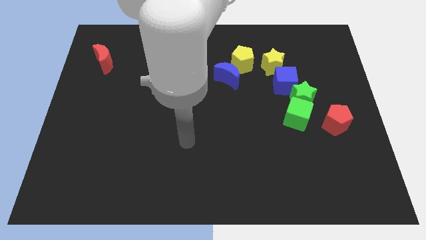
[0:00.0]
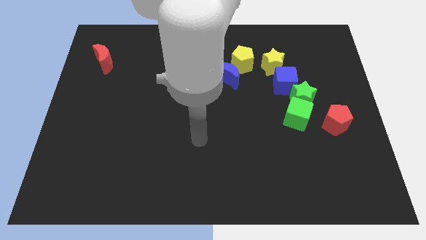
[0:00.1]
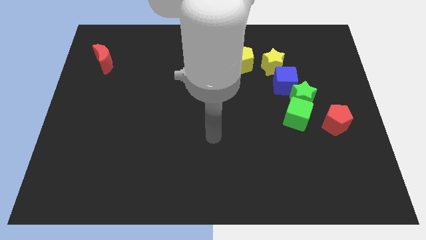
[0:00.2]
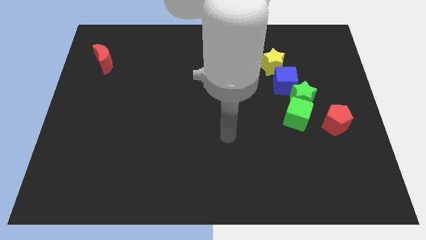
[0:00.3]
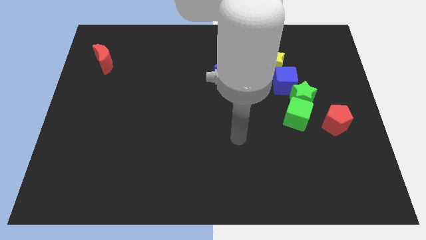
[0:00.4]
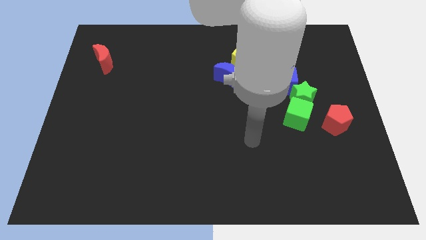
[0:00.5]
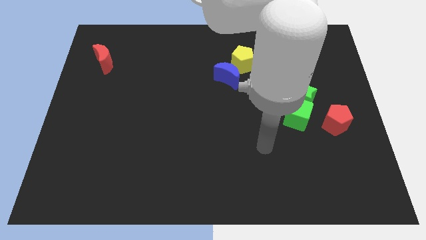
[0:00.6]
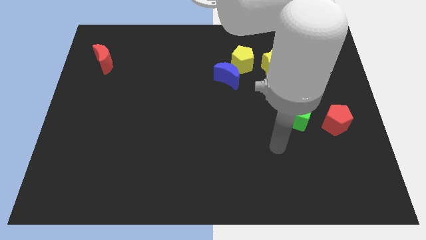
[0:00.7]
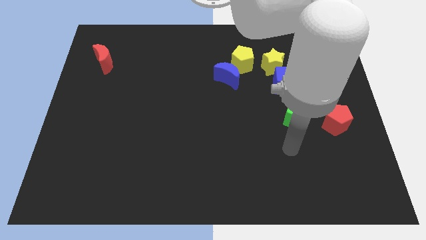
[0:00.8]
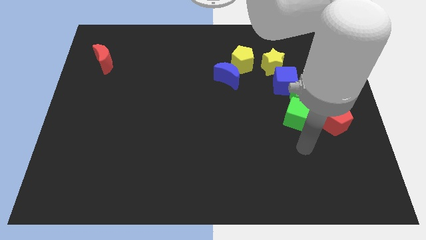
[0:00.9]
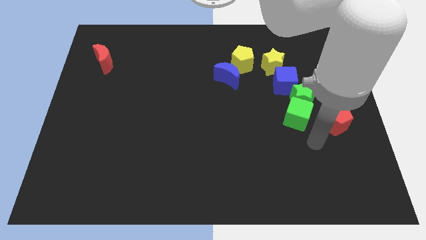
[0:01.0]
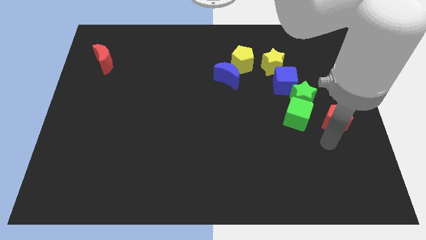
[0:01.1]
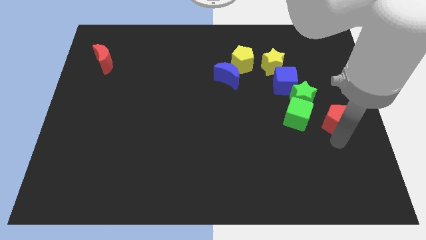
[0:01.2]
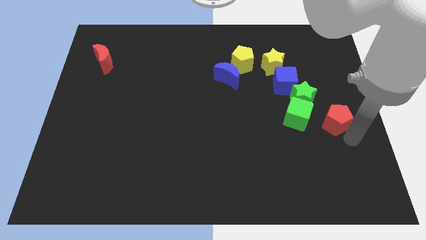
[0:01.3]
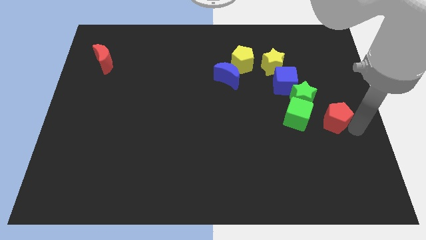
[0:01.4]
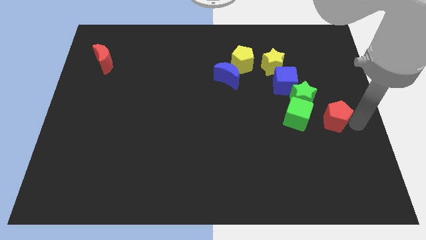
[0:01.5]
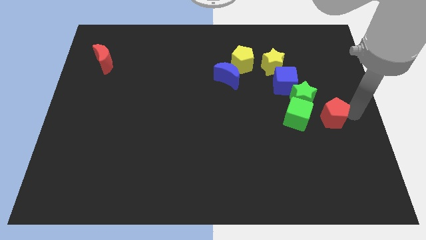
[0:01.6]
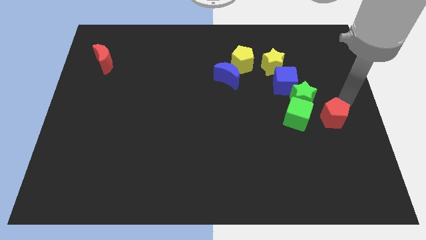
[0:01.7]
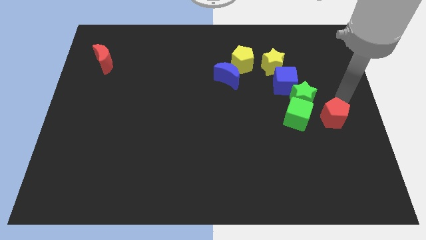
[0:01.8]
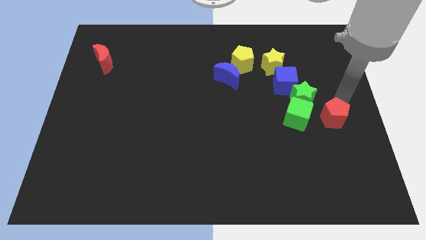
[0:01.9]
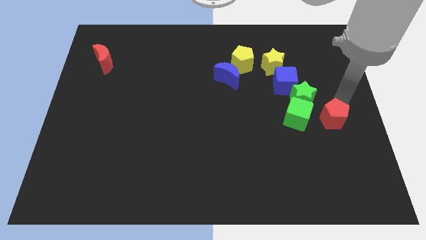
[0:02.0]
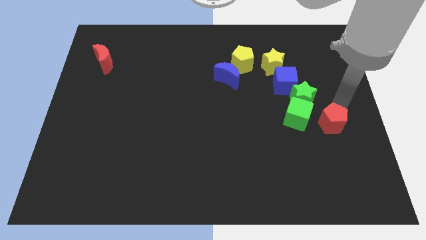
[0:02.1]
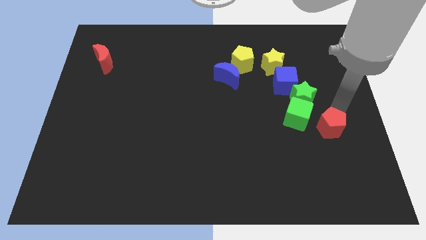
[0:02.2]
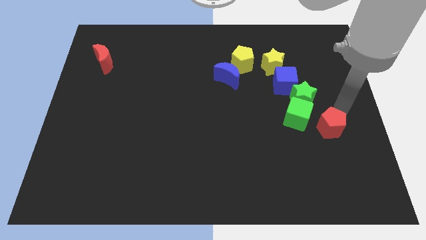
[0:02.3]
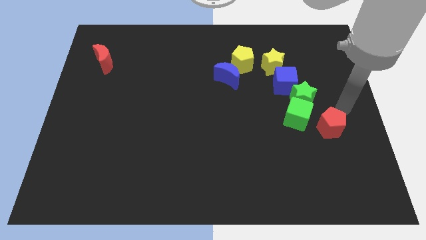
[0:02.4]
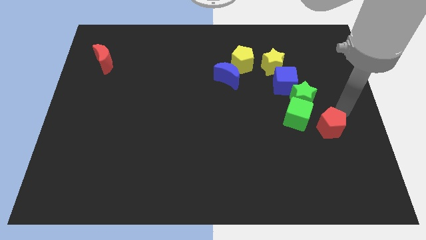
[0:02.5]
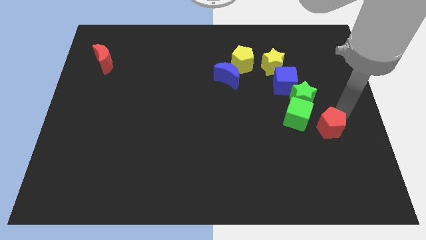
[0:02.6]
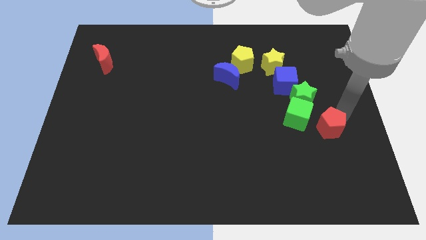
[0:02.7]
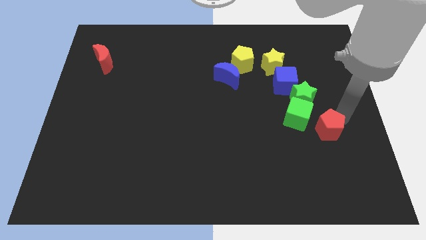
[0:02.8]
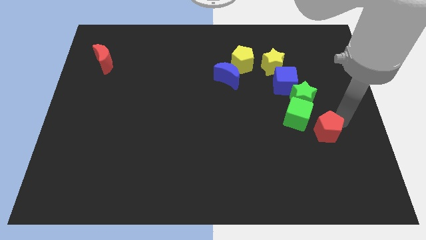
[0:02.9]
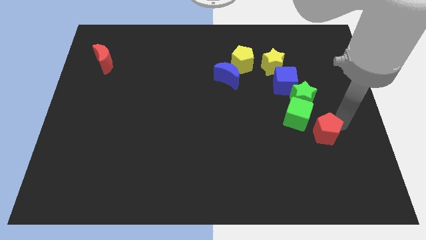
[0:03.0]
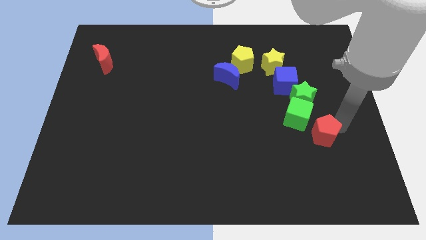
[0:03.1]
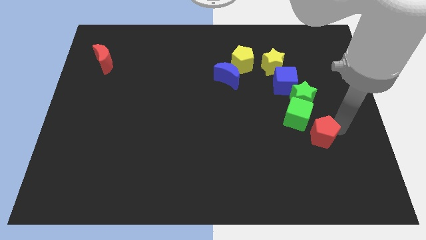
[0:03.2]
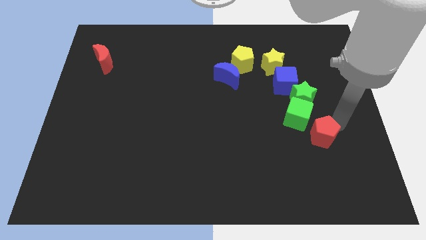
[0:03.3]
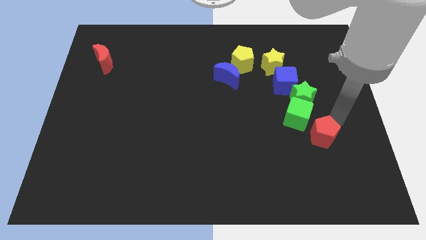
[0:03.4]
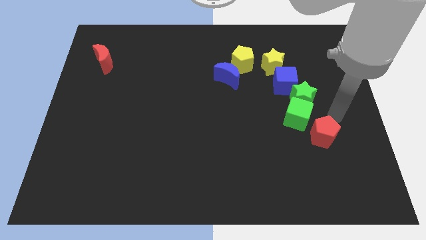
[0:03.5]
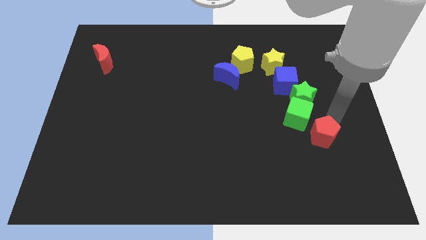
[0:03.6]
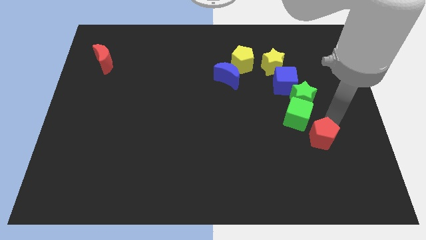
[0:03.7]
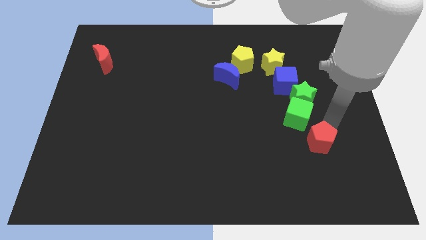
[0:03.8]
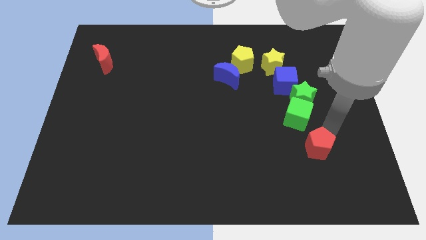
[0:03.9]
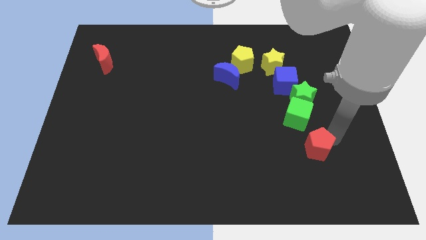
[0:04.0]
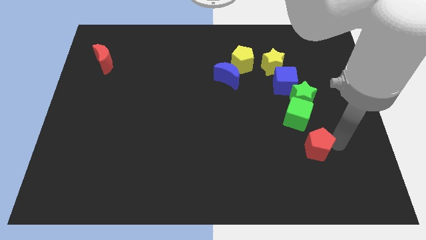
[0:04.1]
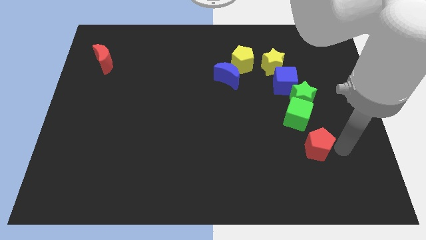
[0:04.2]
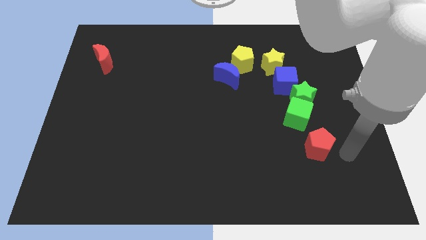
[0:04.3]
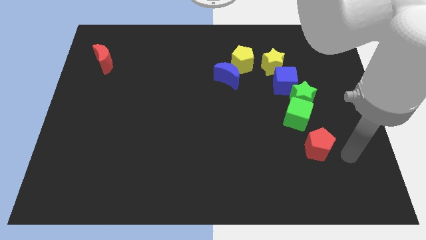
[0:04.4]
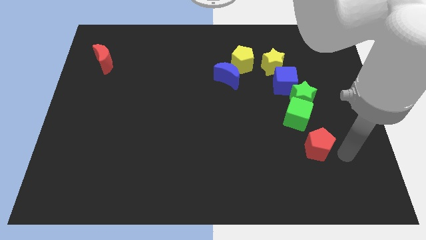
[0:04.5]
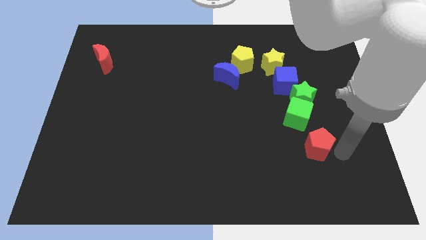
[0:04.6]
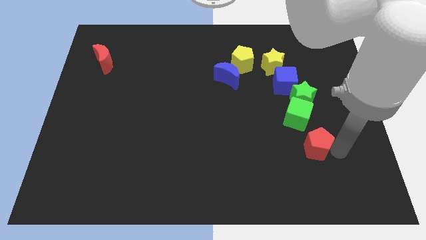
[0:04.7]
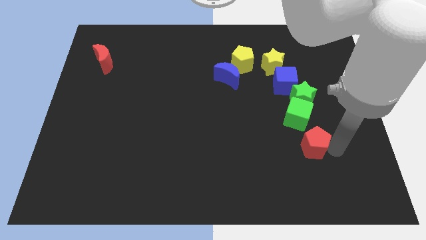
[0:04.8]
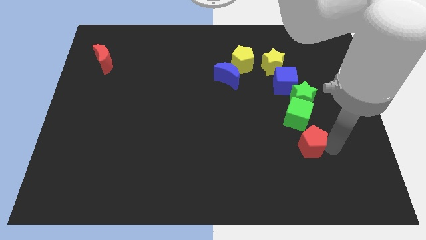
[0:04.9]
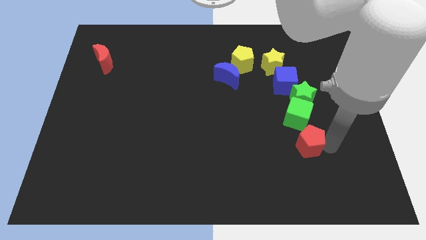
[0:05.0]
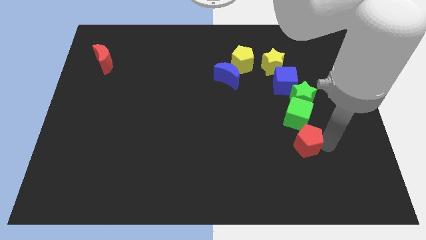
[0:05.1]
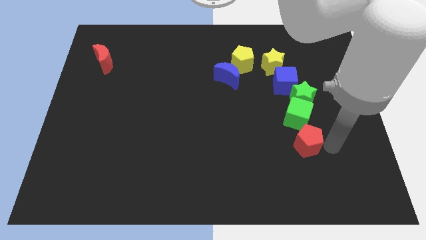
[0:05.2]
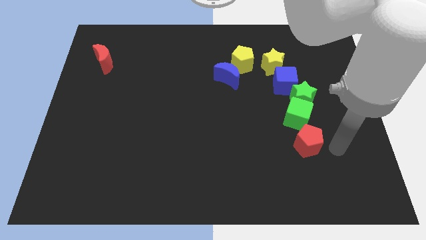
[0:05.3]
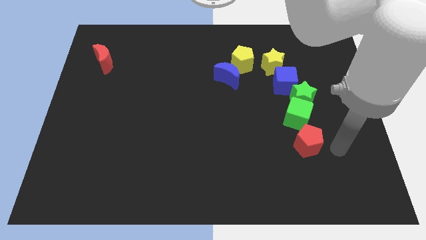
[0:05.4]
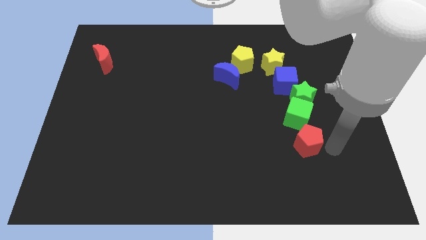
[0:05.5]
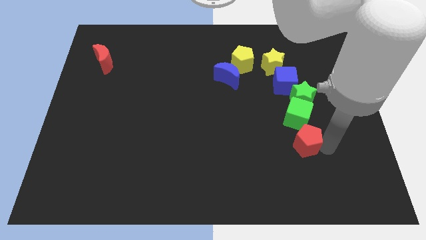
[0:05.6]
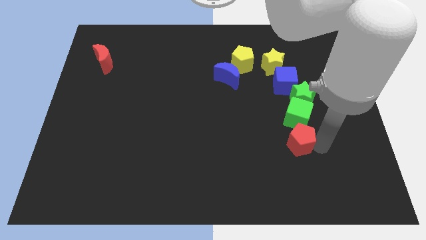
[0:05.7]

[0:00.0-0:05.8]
push the red pentagon to the left slightly

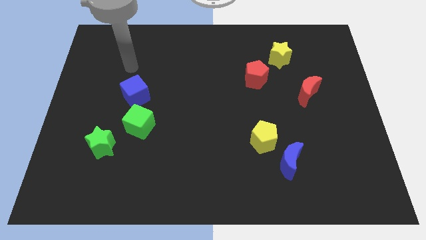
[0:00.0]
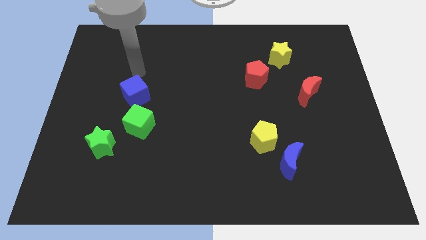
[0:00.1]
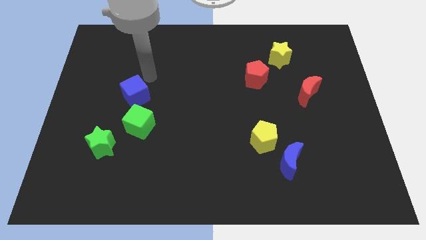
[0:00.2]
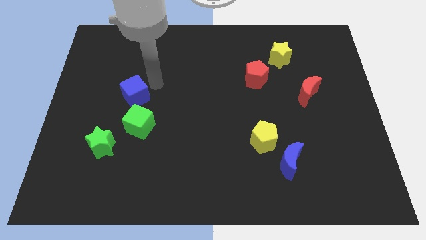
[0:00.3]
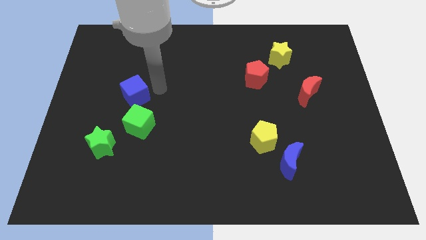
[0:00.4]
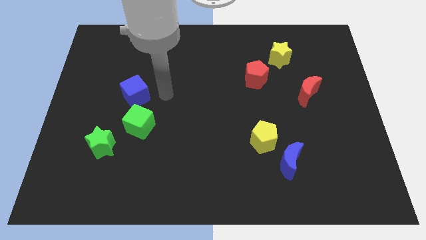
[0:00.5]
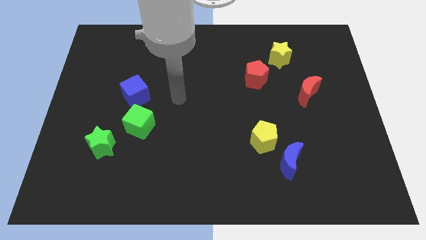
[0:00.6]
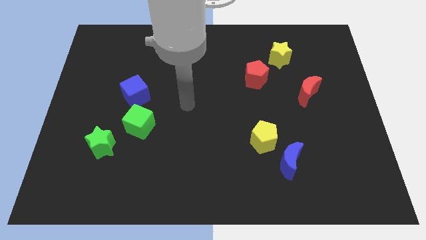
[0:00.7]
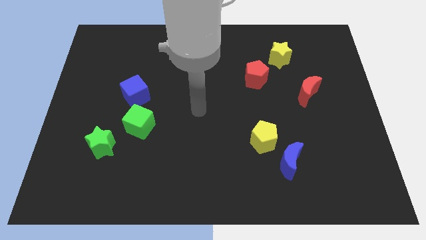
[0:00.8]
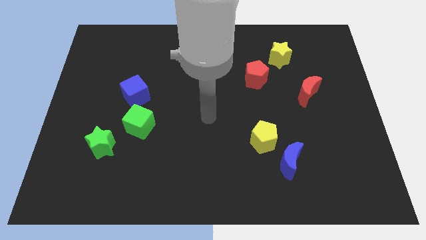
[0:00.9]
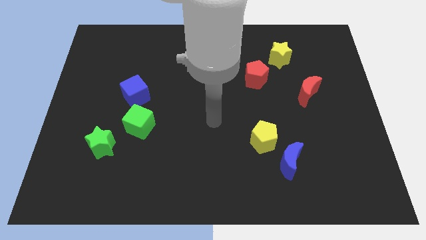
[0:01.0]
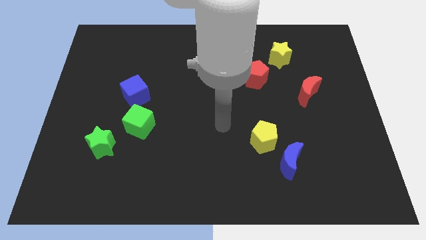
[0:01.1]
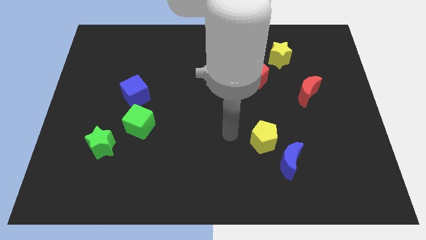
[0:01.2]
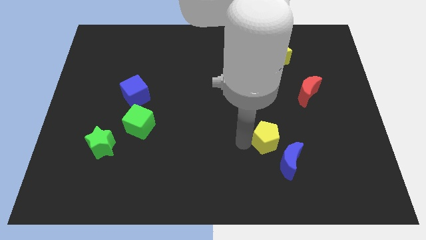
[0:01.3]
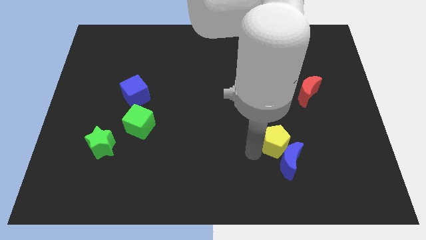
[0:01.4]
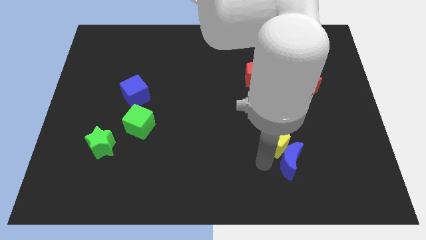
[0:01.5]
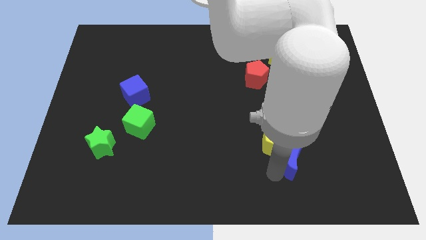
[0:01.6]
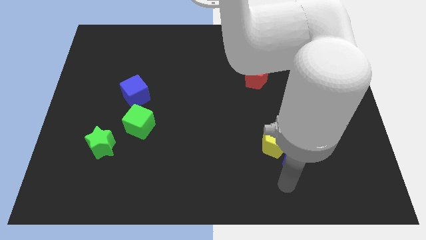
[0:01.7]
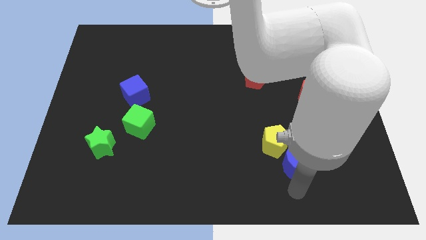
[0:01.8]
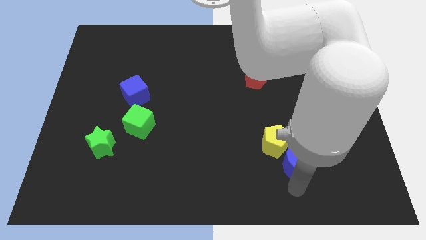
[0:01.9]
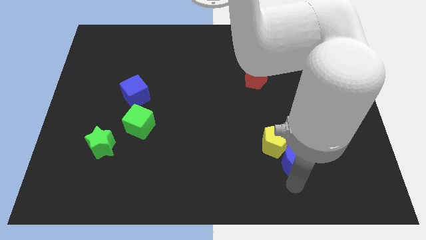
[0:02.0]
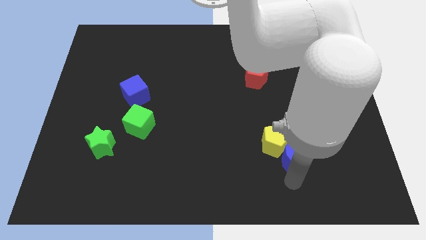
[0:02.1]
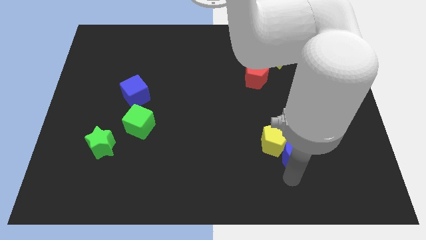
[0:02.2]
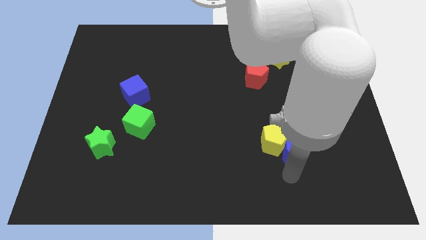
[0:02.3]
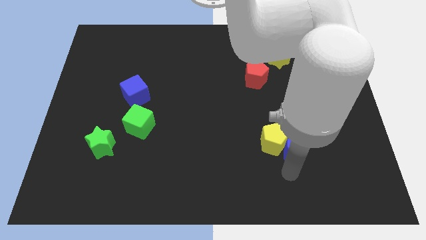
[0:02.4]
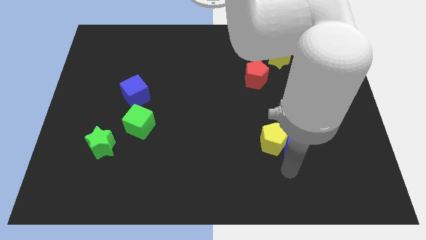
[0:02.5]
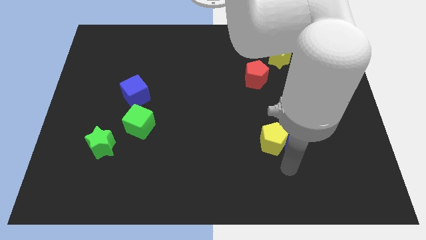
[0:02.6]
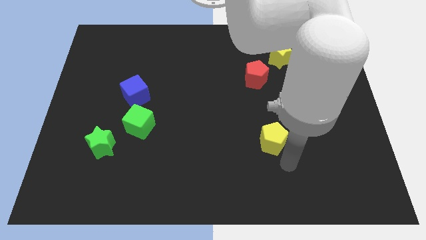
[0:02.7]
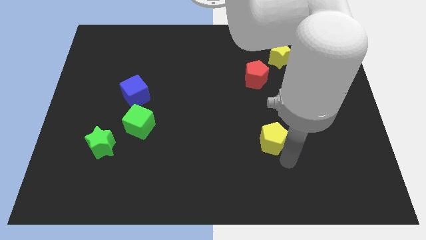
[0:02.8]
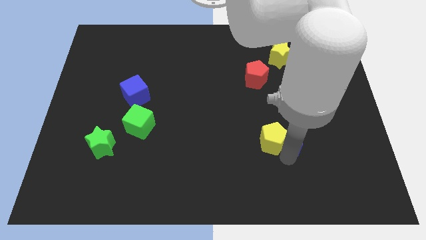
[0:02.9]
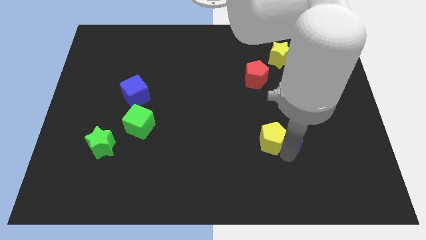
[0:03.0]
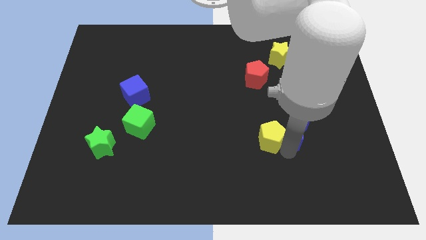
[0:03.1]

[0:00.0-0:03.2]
slide the blue moon a little bit up
